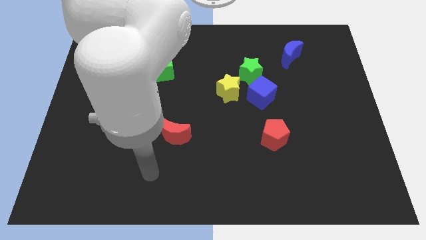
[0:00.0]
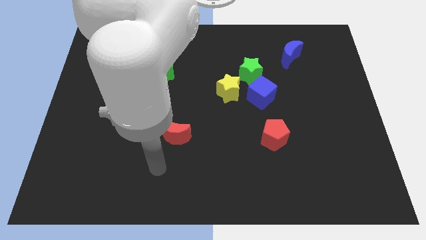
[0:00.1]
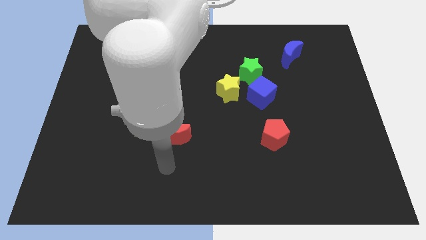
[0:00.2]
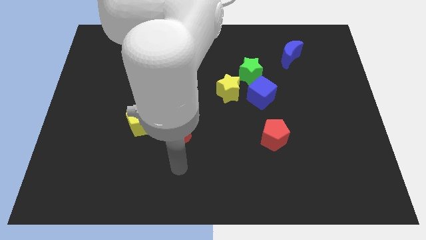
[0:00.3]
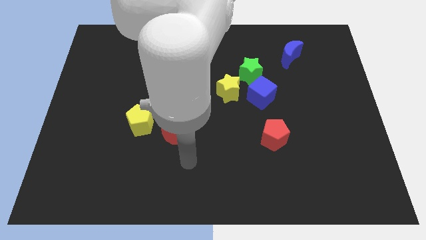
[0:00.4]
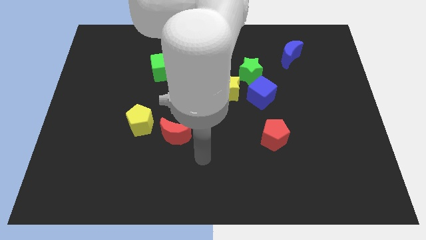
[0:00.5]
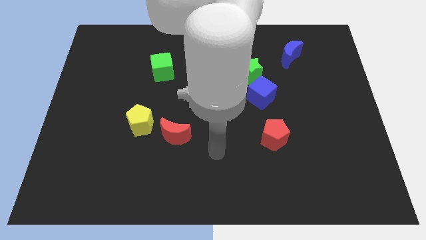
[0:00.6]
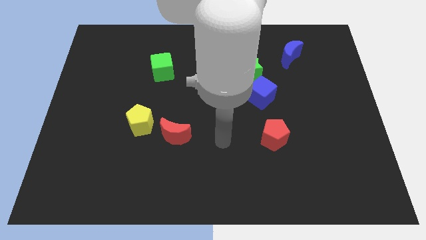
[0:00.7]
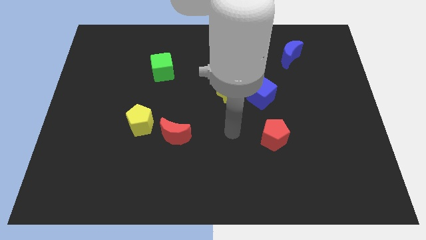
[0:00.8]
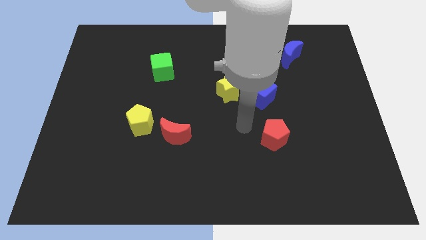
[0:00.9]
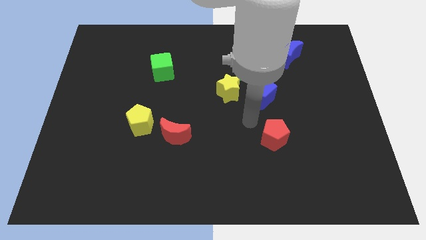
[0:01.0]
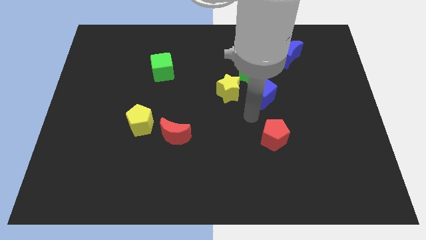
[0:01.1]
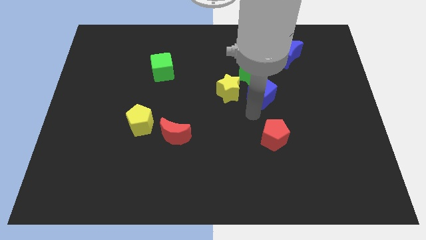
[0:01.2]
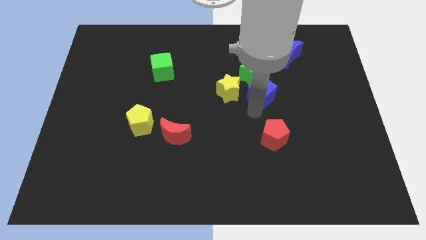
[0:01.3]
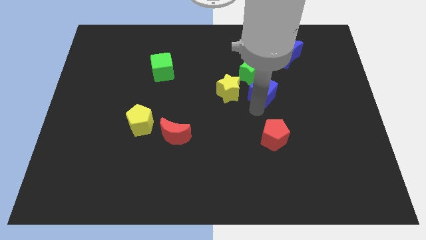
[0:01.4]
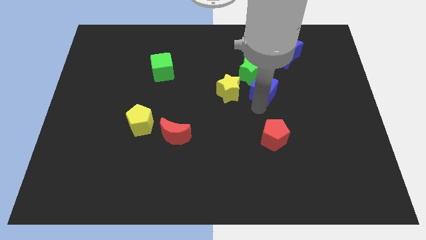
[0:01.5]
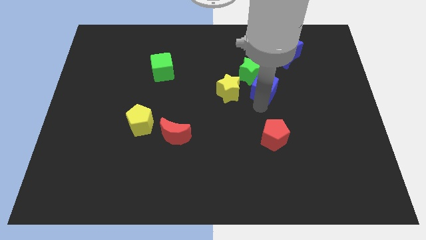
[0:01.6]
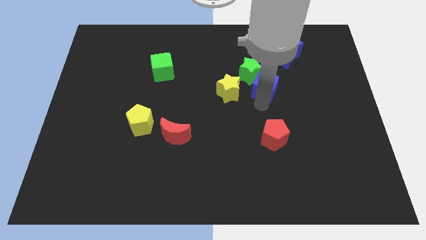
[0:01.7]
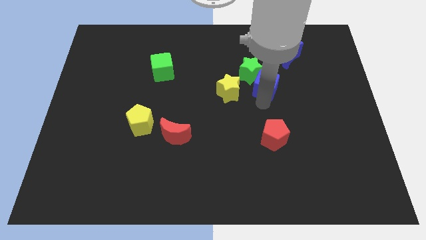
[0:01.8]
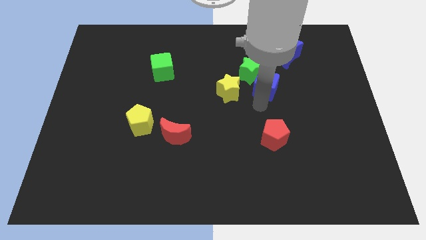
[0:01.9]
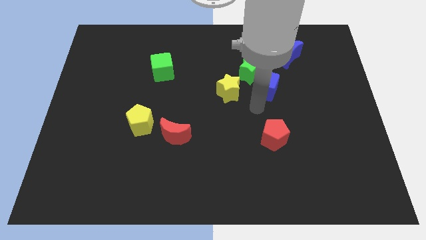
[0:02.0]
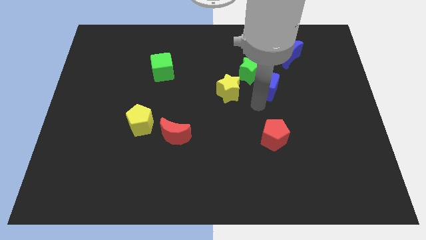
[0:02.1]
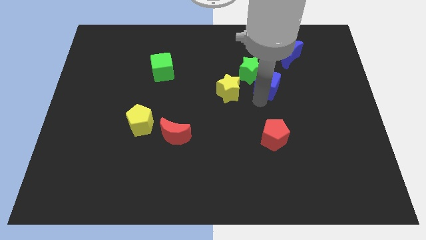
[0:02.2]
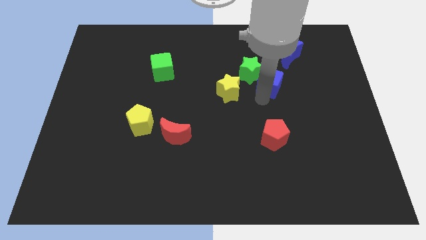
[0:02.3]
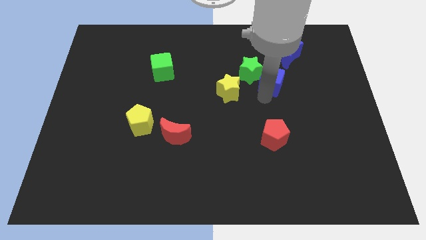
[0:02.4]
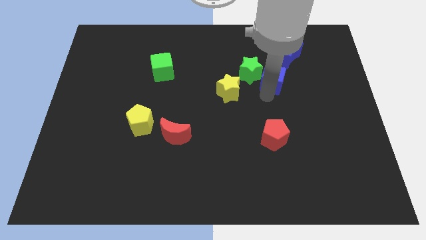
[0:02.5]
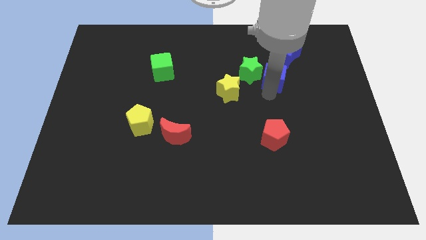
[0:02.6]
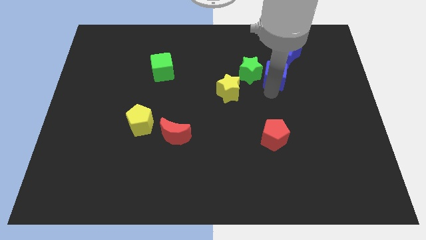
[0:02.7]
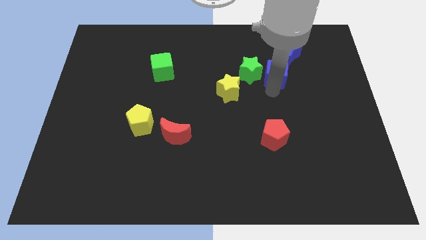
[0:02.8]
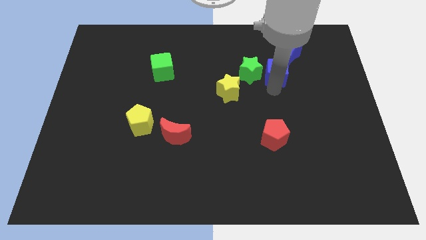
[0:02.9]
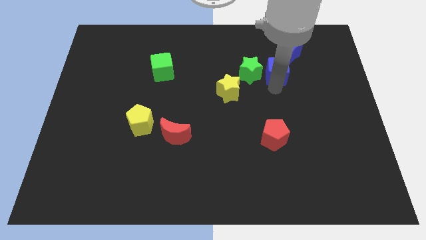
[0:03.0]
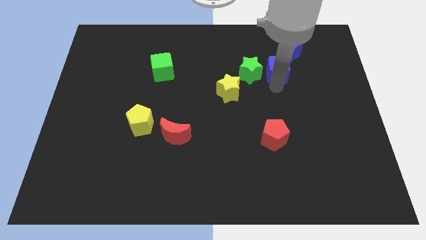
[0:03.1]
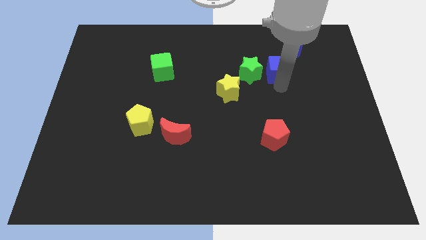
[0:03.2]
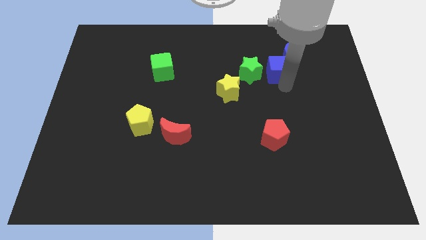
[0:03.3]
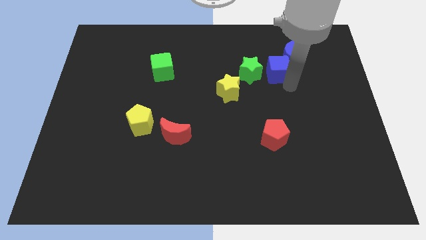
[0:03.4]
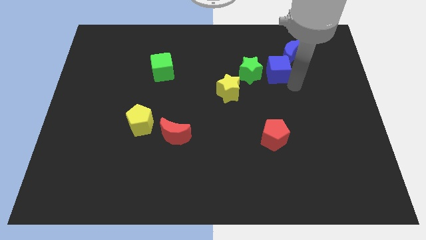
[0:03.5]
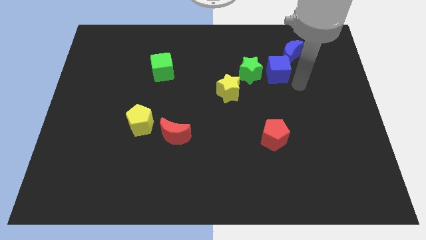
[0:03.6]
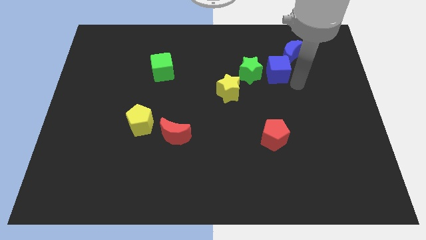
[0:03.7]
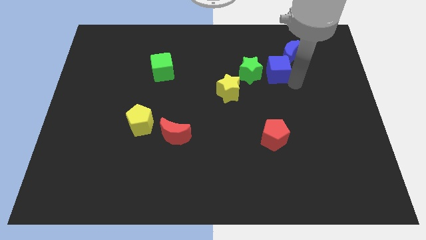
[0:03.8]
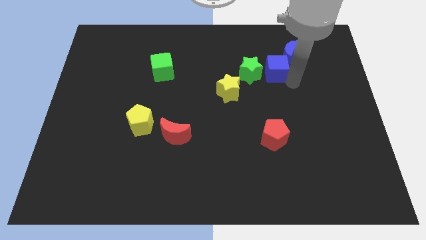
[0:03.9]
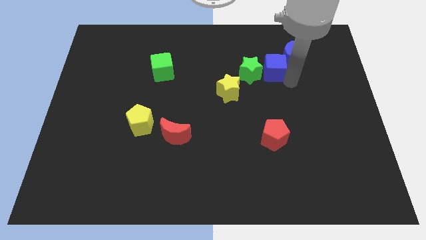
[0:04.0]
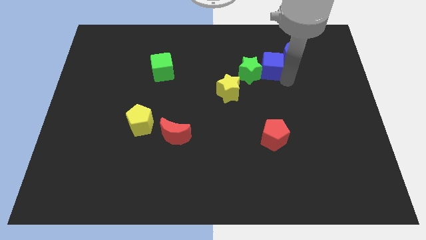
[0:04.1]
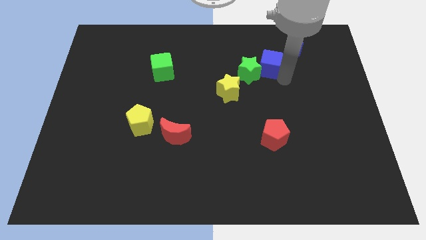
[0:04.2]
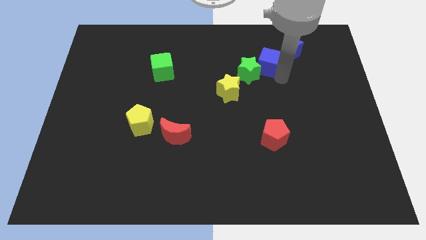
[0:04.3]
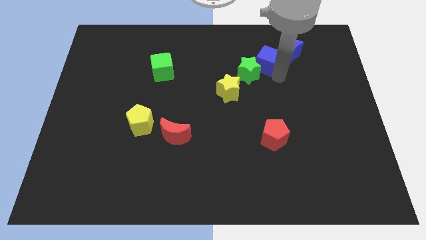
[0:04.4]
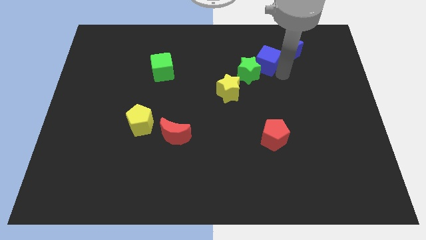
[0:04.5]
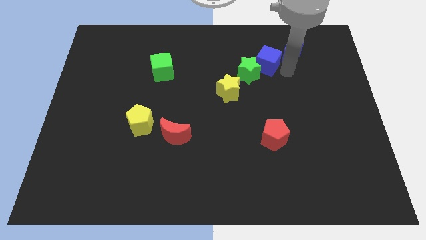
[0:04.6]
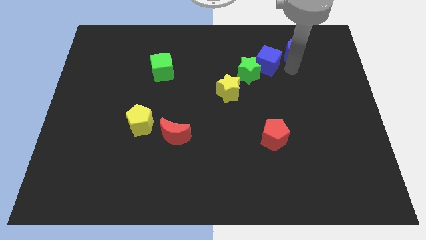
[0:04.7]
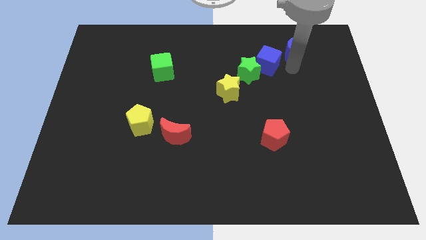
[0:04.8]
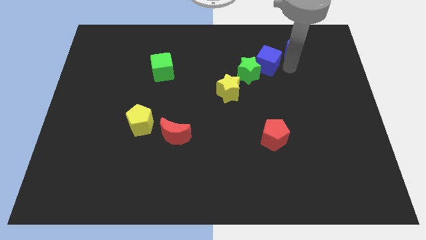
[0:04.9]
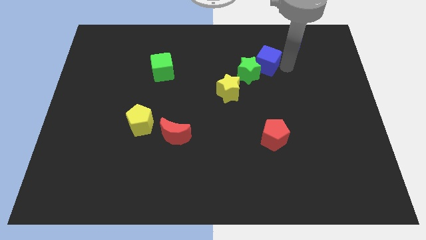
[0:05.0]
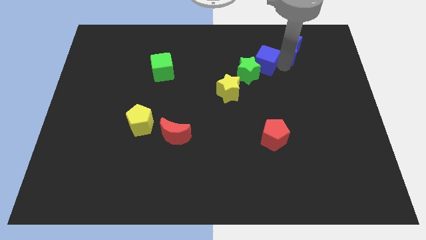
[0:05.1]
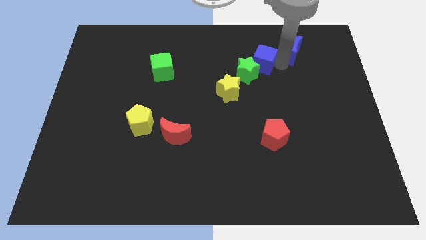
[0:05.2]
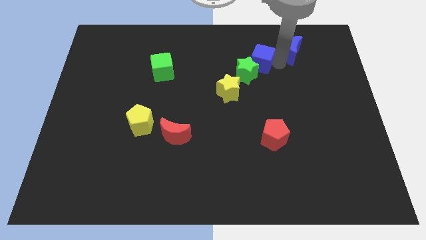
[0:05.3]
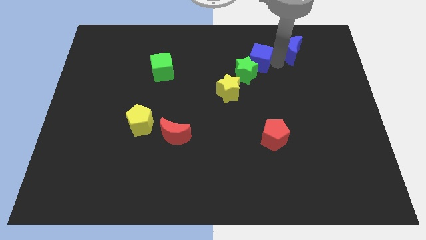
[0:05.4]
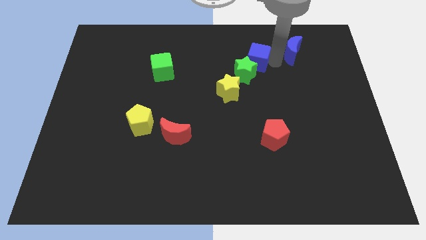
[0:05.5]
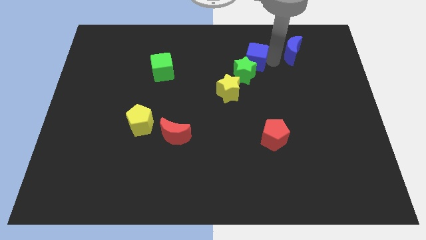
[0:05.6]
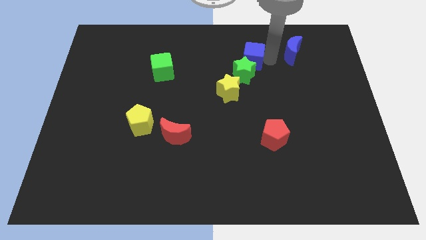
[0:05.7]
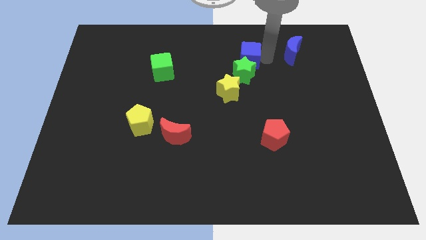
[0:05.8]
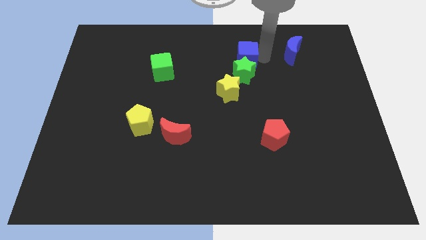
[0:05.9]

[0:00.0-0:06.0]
put the blue cube diagonally up and to the left of the green star

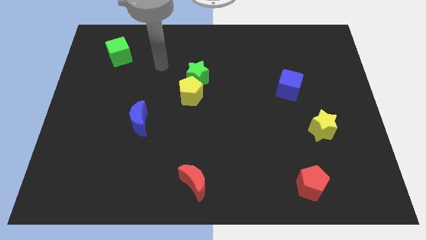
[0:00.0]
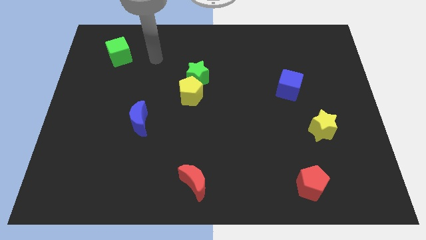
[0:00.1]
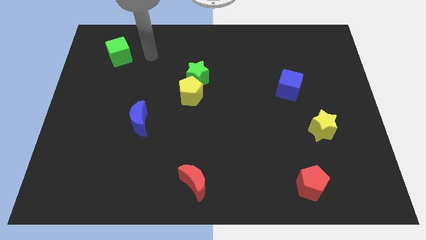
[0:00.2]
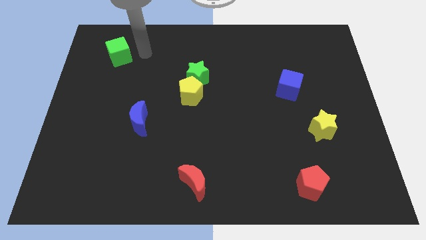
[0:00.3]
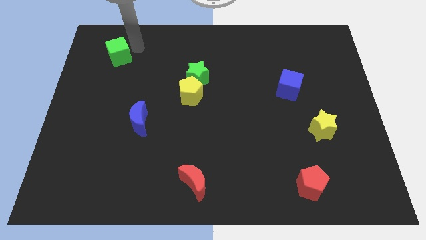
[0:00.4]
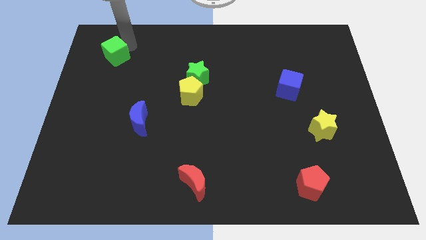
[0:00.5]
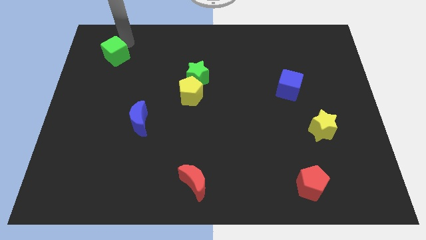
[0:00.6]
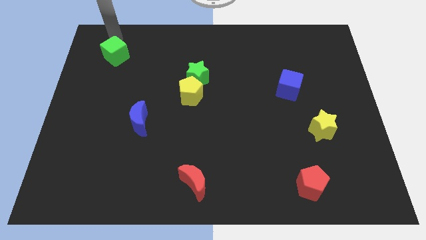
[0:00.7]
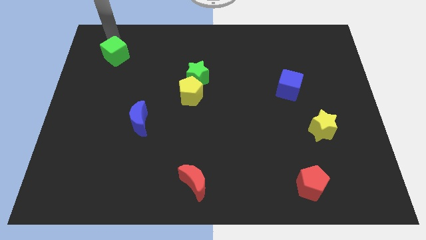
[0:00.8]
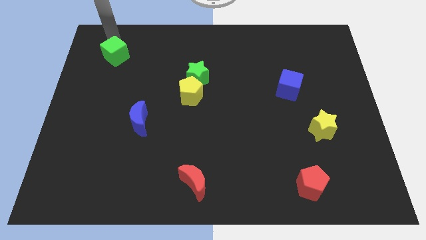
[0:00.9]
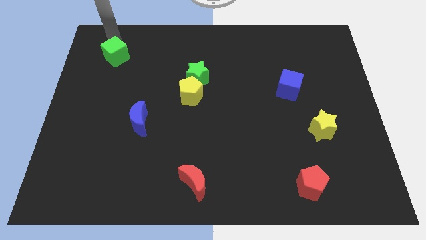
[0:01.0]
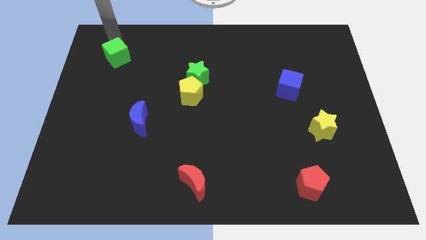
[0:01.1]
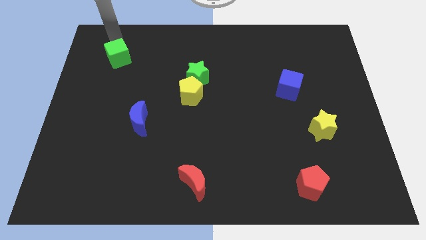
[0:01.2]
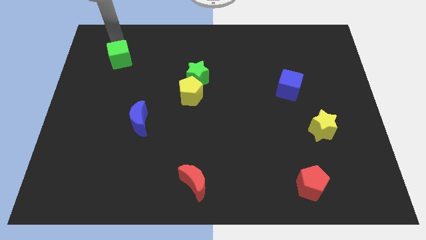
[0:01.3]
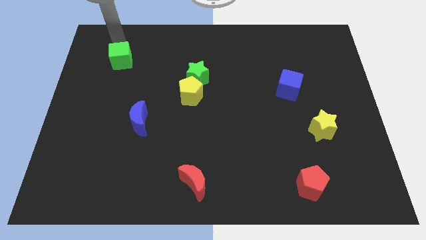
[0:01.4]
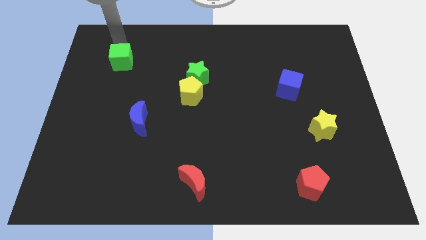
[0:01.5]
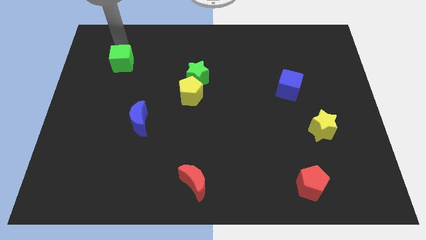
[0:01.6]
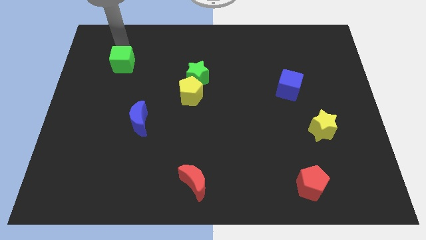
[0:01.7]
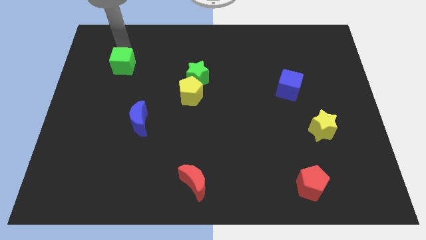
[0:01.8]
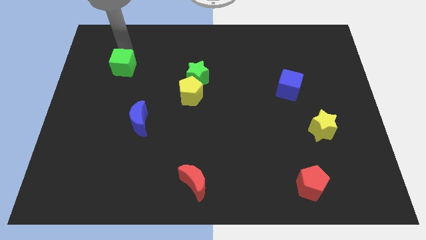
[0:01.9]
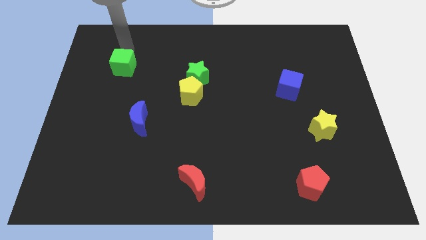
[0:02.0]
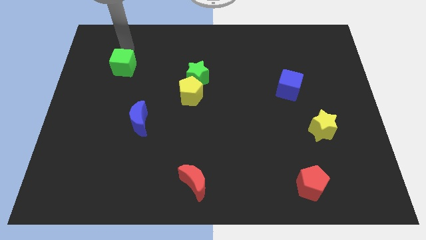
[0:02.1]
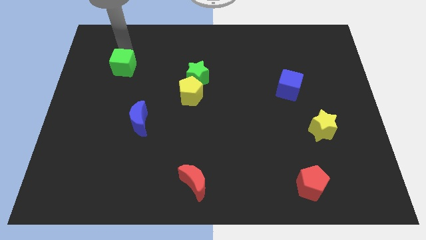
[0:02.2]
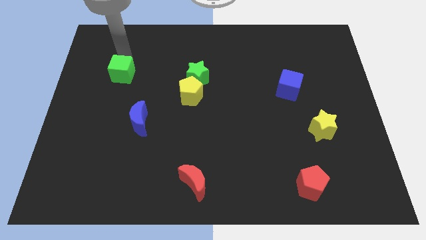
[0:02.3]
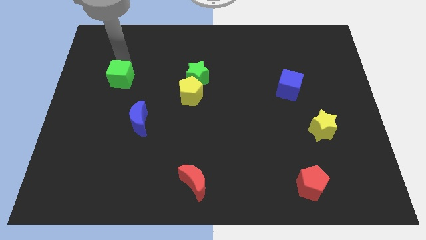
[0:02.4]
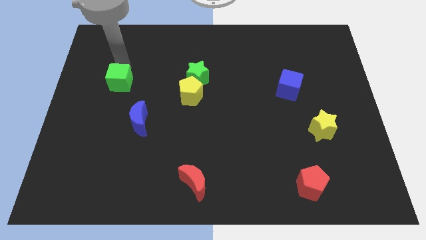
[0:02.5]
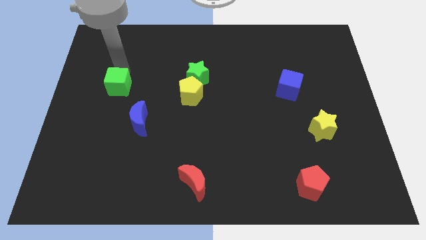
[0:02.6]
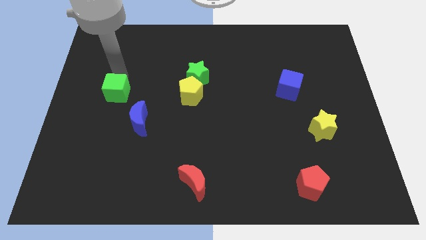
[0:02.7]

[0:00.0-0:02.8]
move the green cube to the top left side of the blue moon
